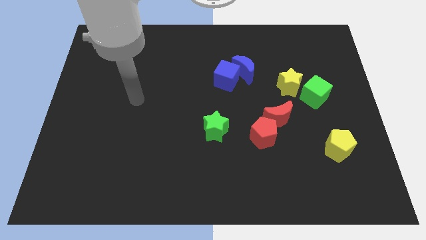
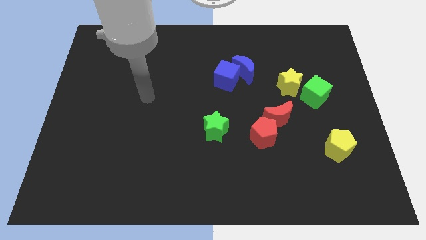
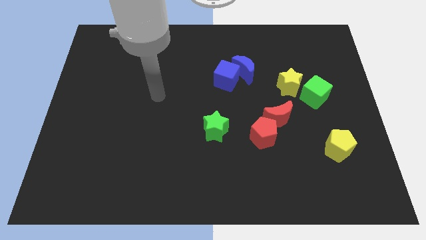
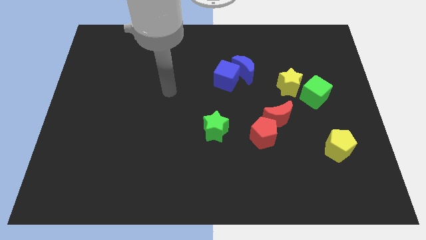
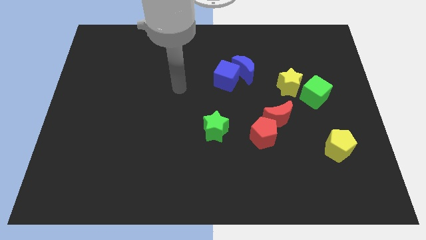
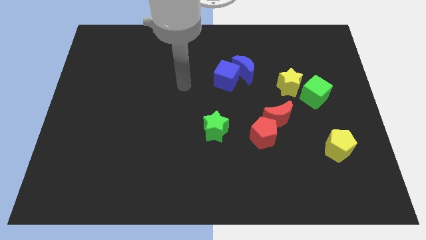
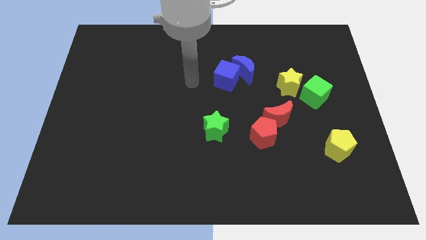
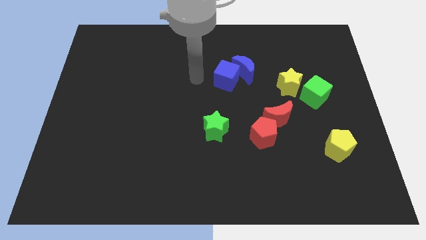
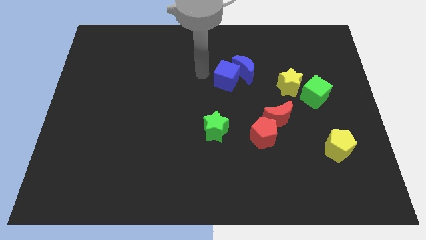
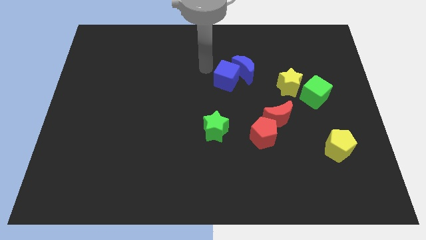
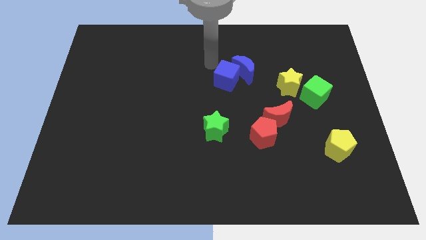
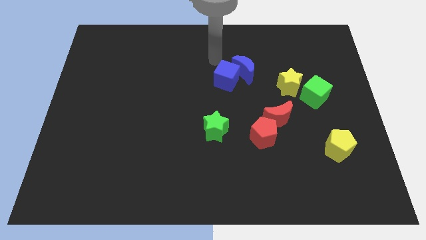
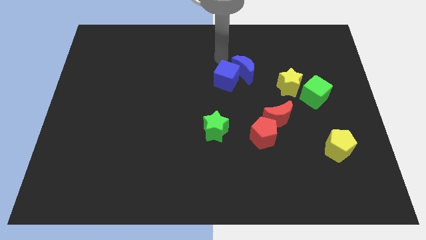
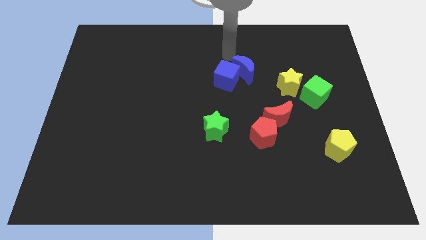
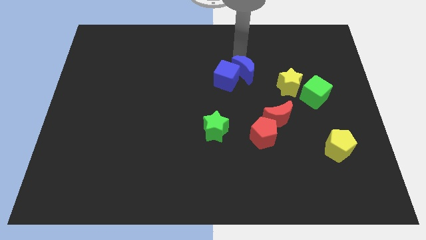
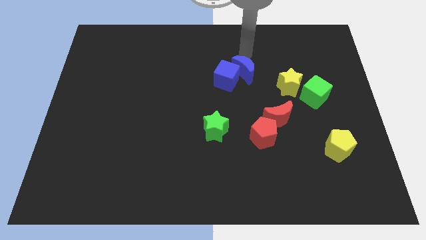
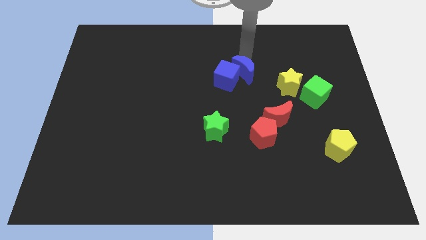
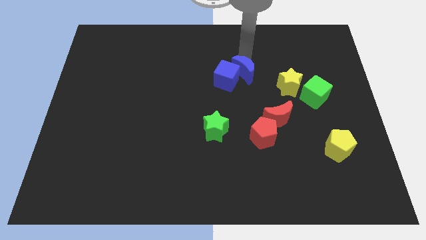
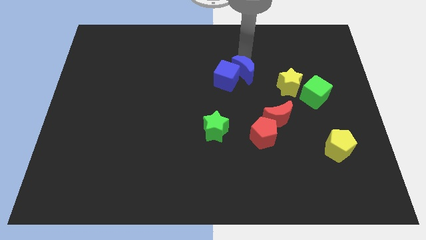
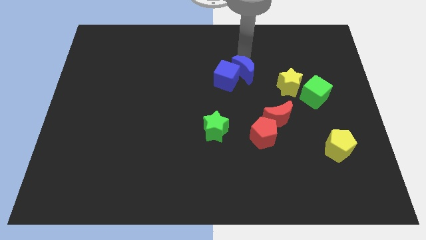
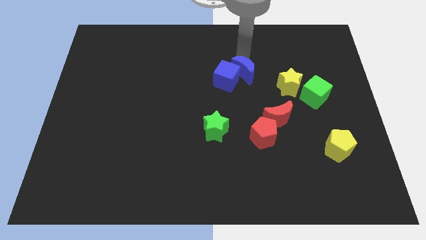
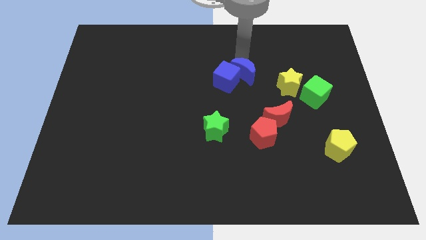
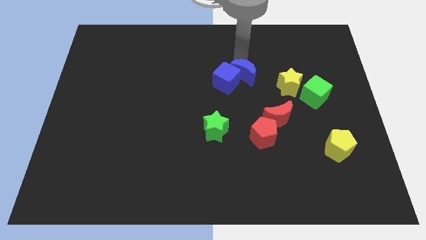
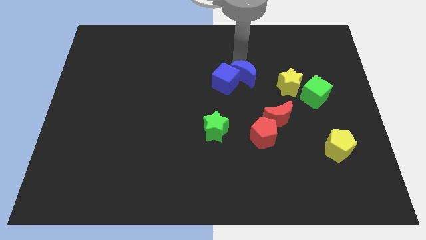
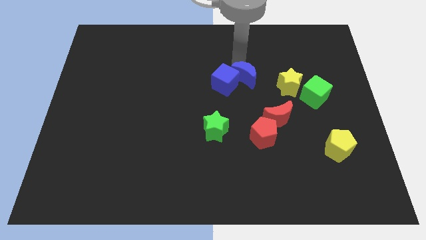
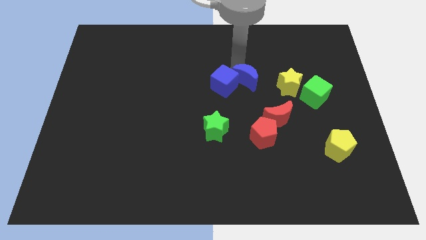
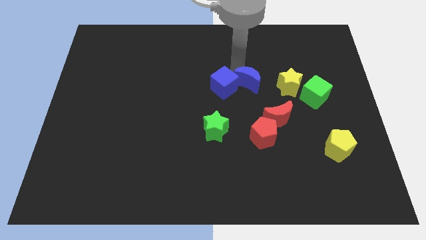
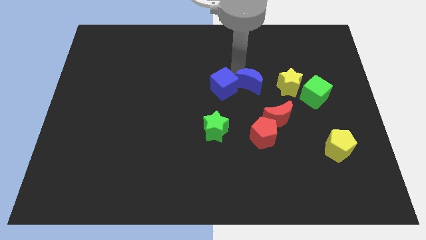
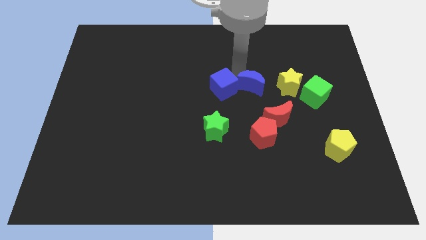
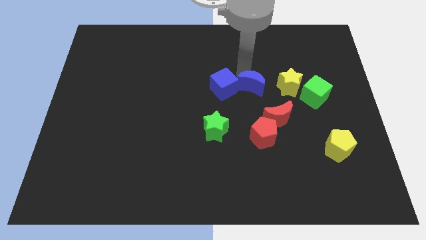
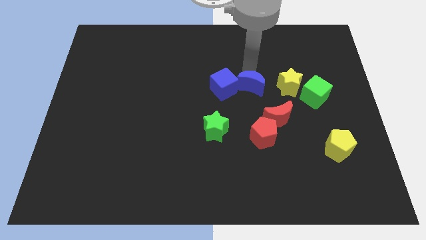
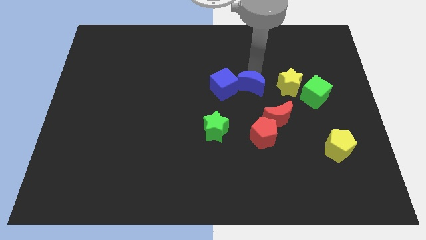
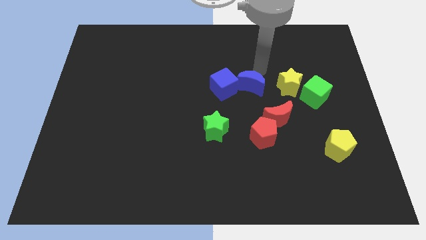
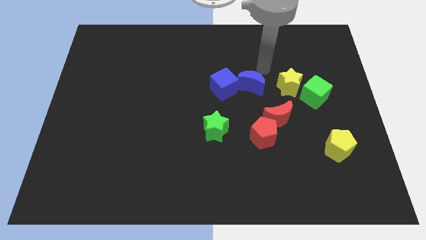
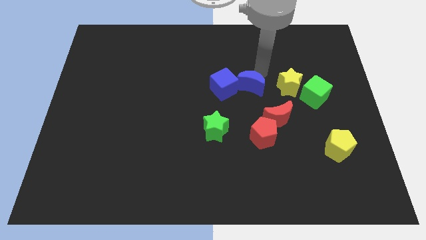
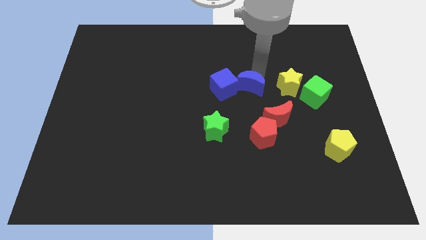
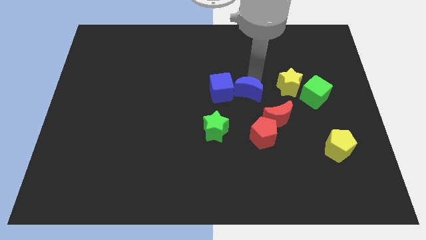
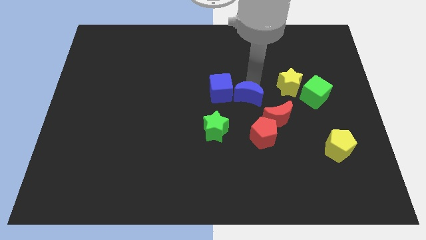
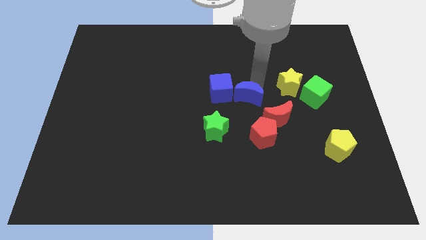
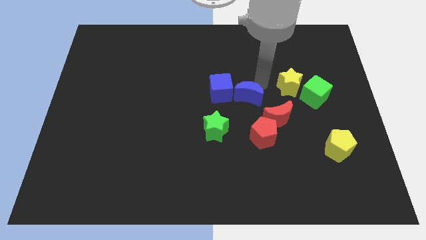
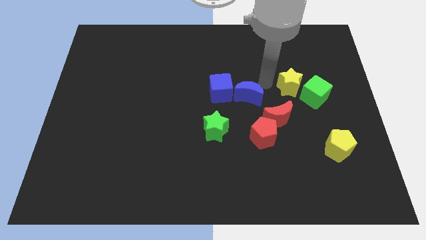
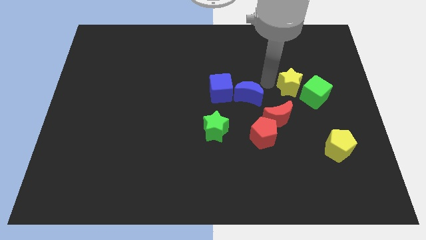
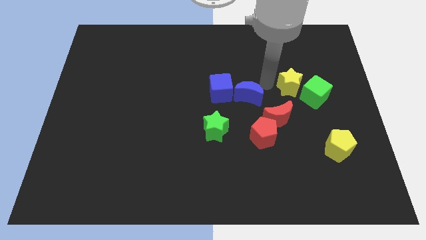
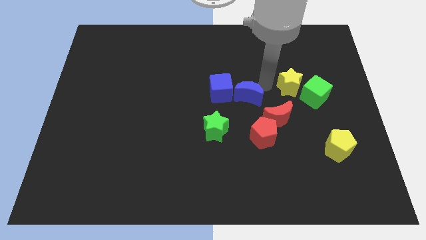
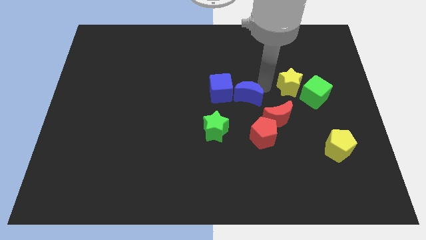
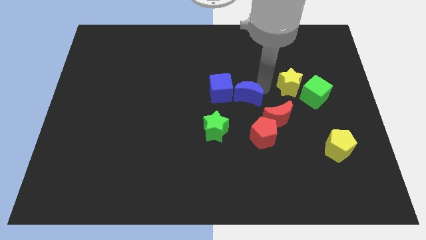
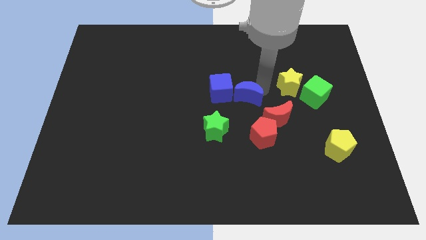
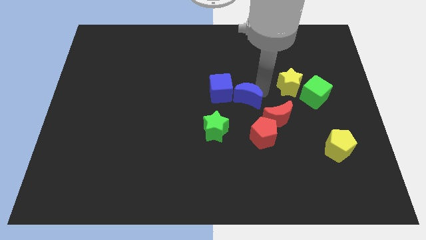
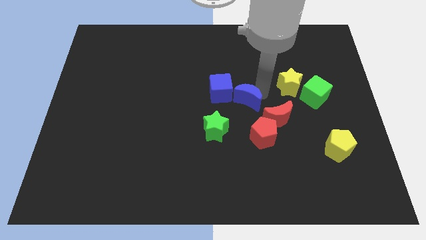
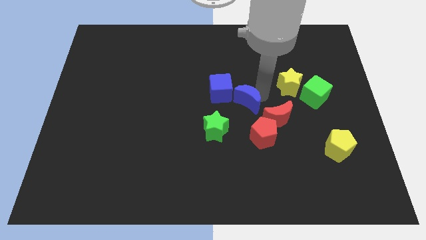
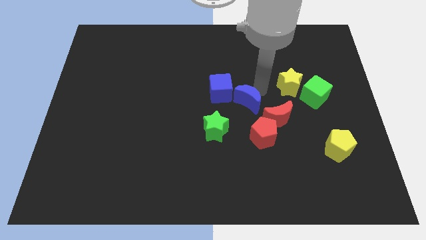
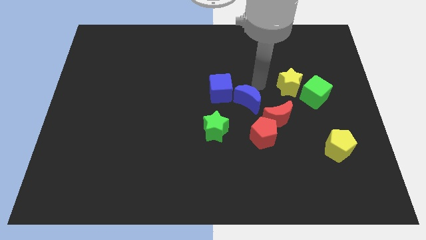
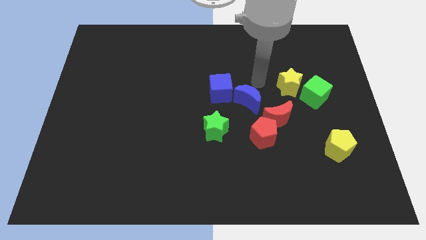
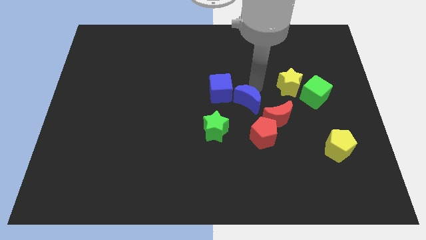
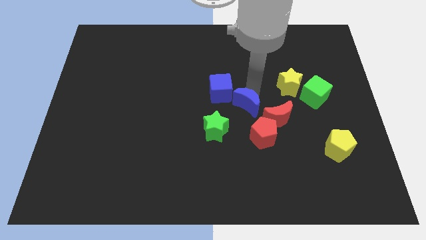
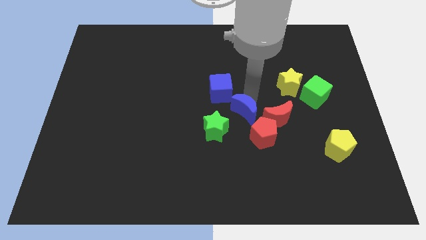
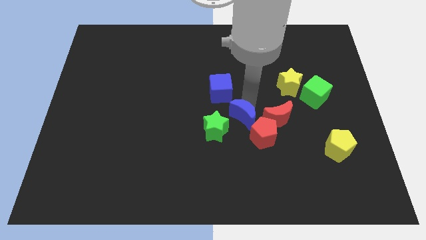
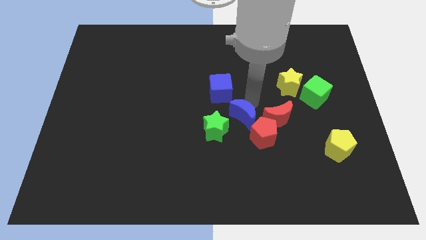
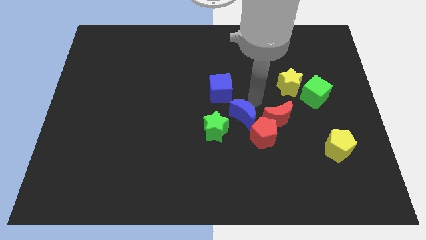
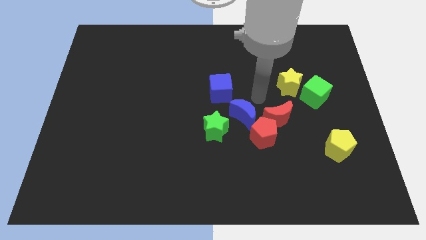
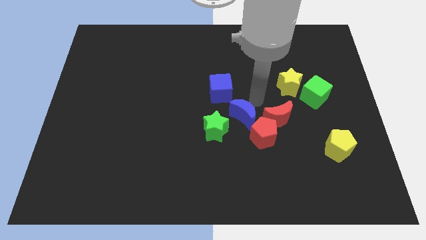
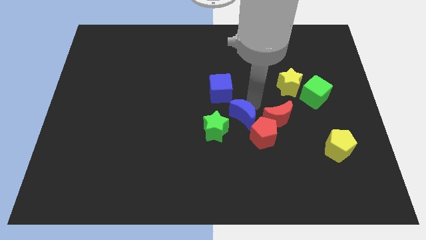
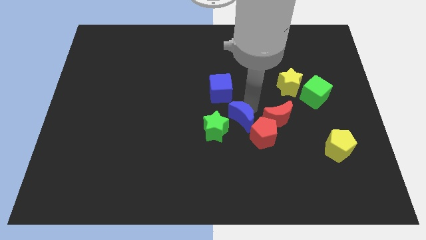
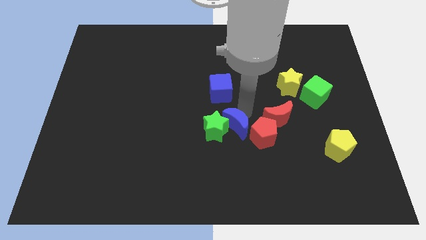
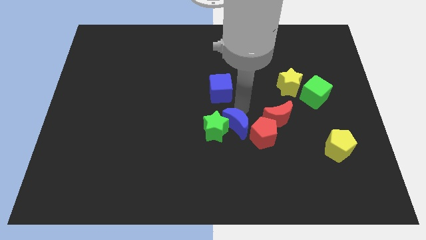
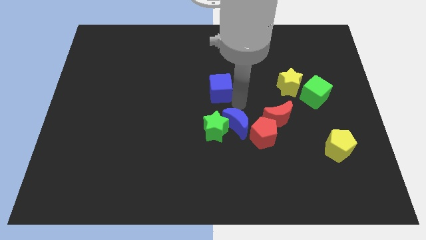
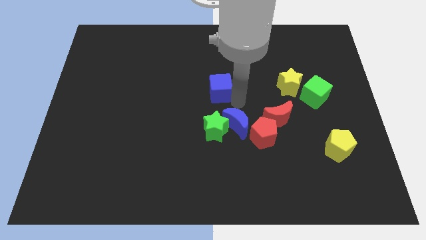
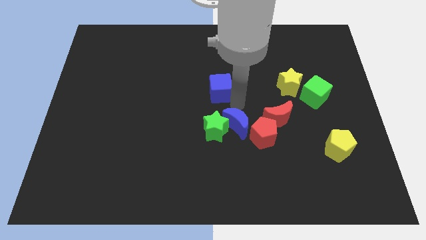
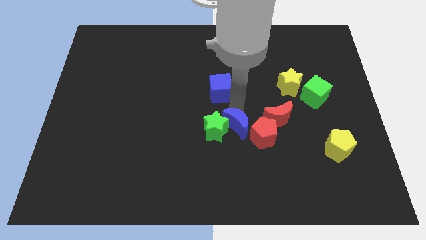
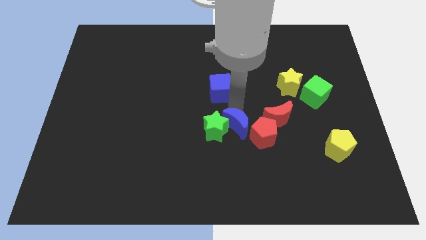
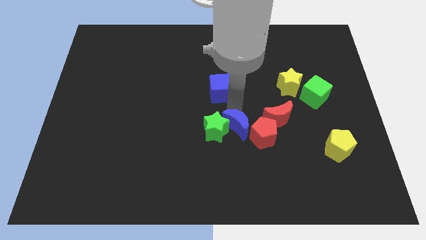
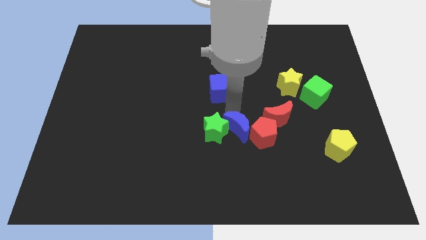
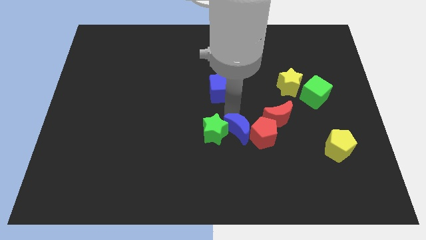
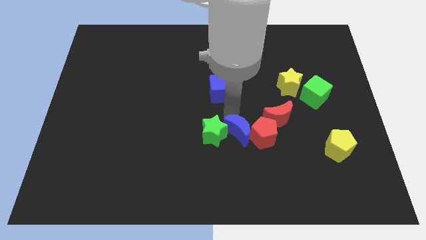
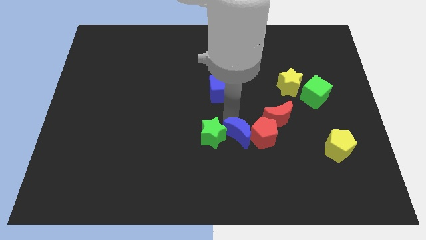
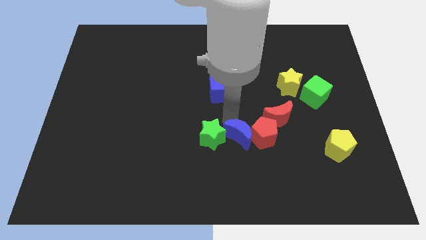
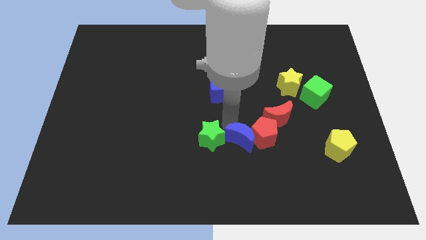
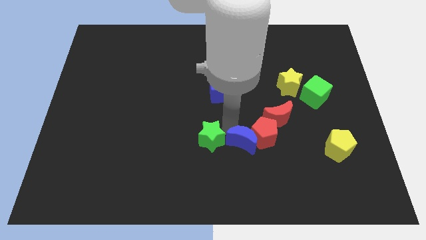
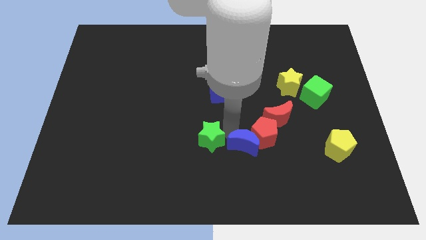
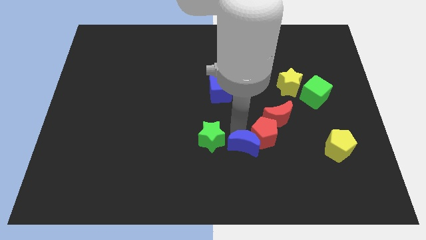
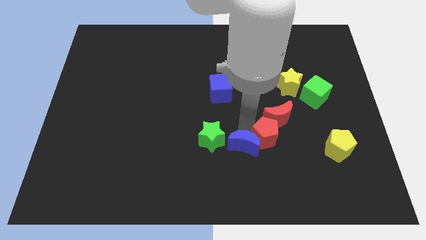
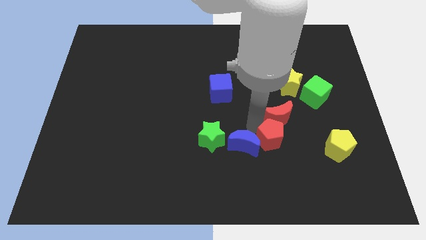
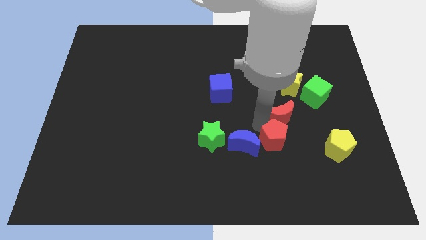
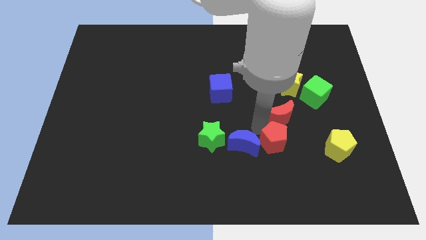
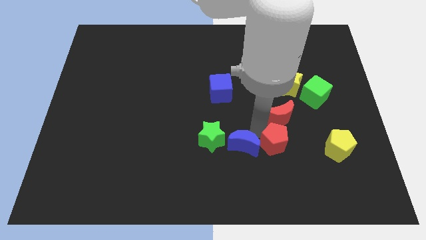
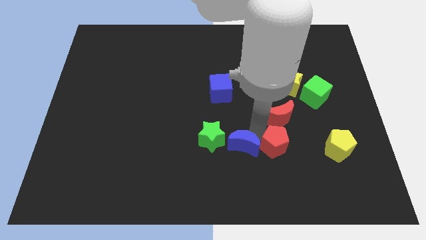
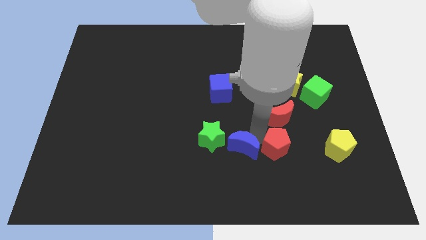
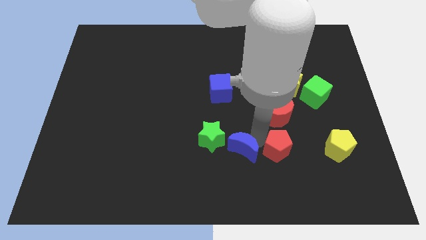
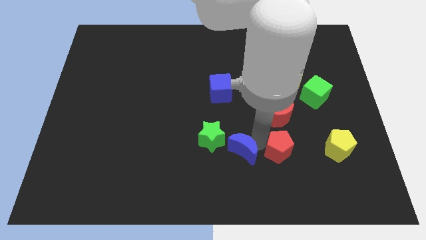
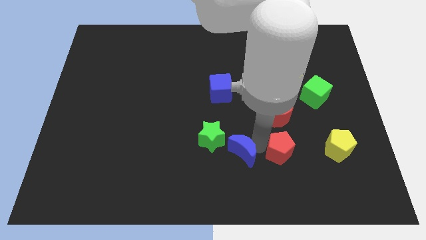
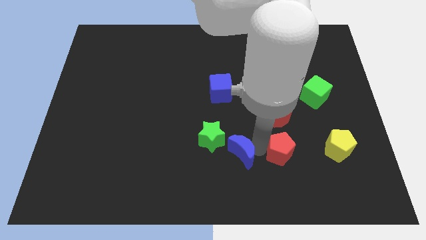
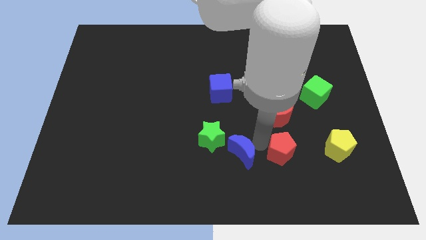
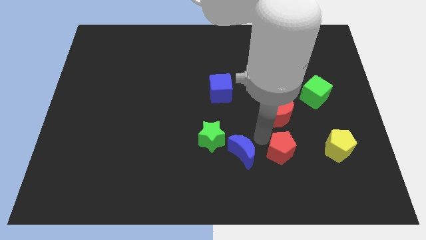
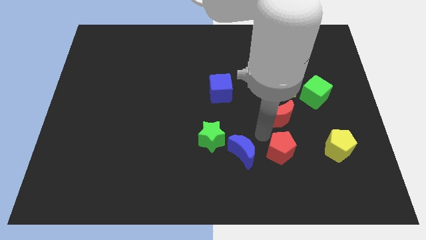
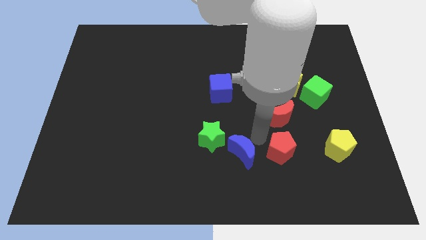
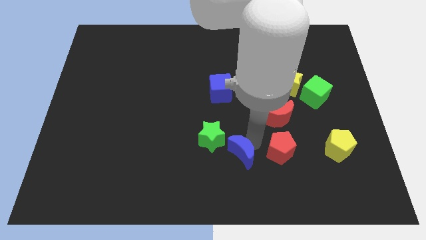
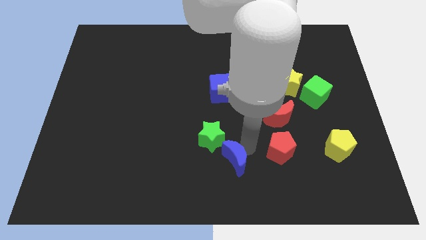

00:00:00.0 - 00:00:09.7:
move the blue moon to the bottom side
